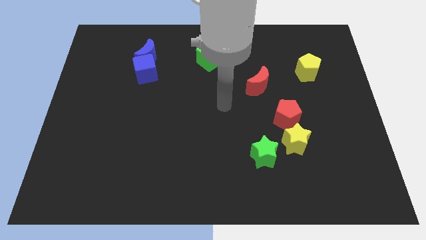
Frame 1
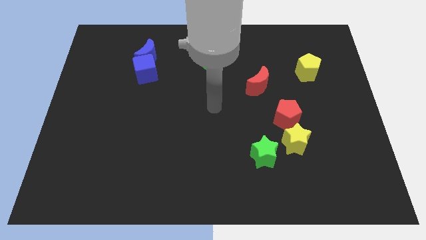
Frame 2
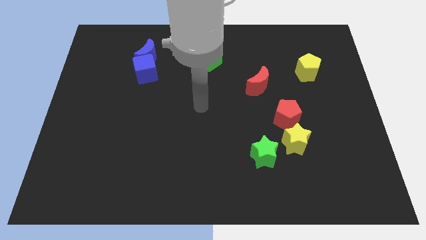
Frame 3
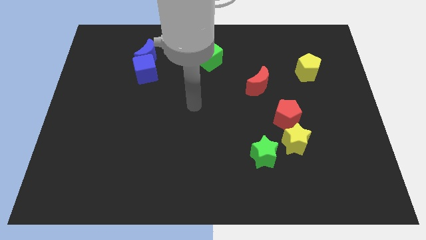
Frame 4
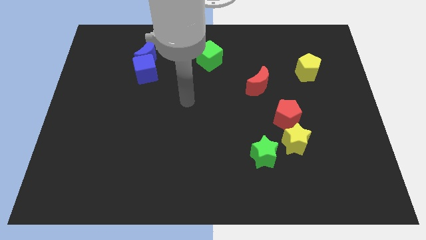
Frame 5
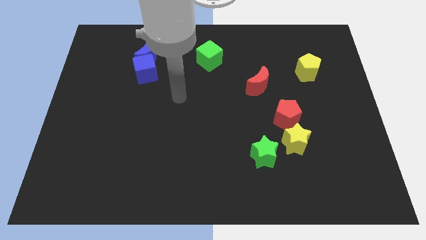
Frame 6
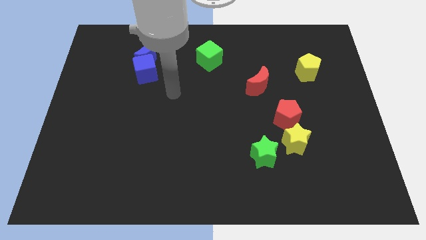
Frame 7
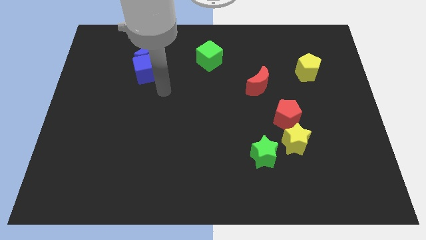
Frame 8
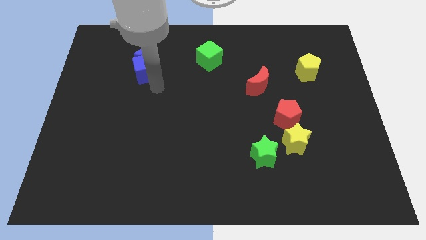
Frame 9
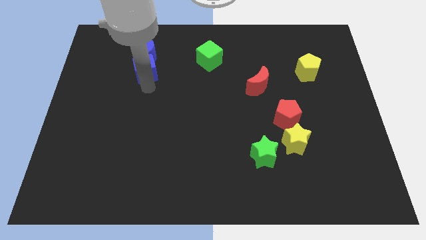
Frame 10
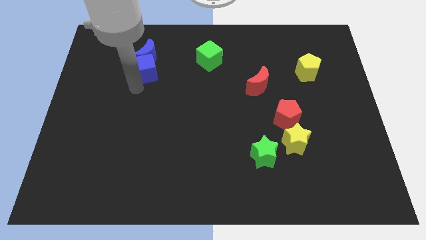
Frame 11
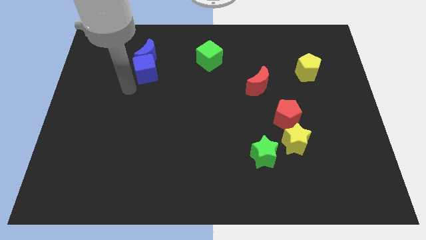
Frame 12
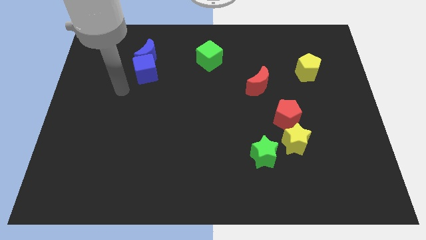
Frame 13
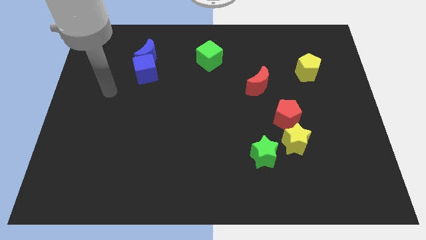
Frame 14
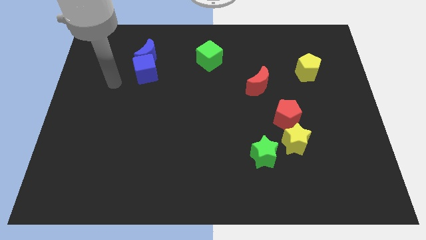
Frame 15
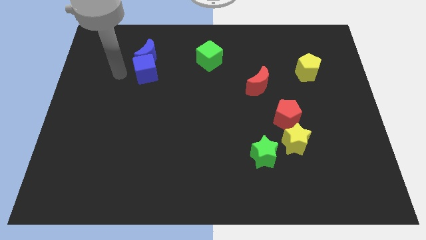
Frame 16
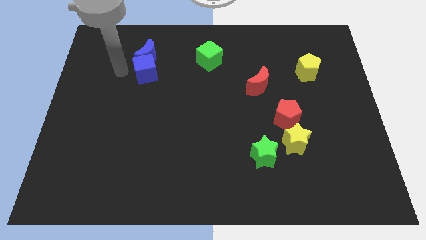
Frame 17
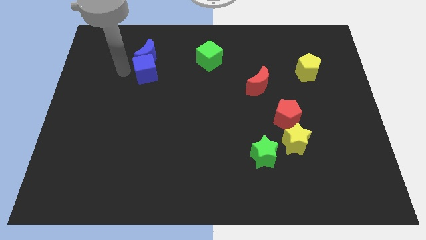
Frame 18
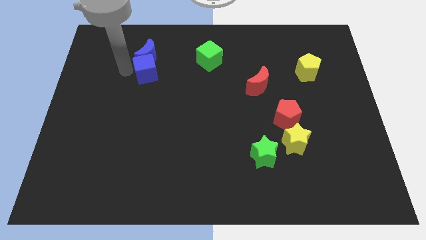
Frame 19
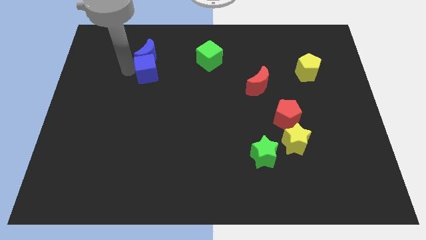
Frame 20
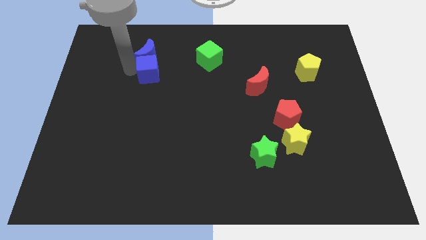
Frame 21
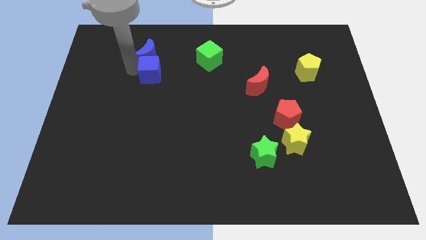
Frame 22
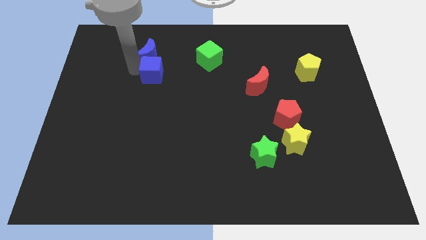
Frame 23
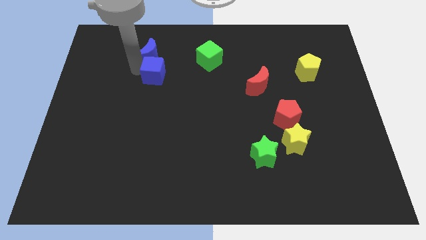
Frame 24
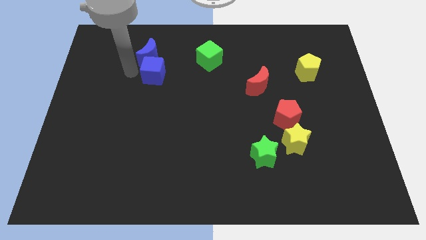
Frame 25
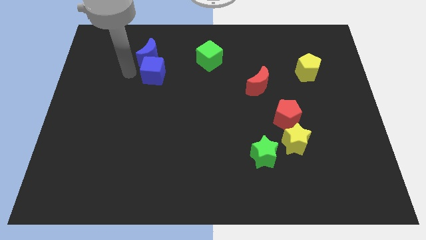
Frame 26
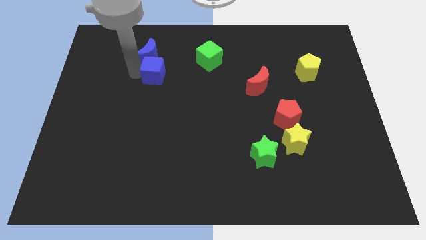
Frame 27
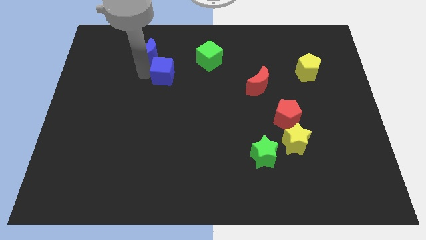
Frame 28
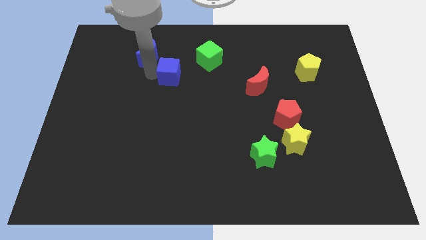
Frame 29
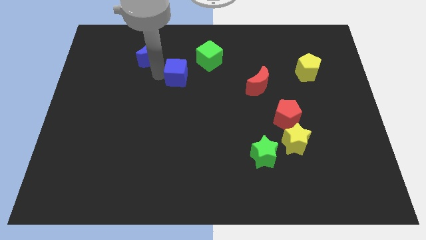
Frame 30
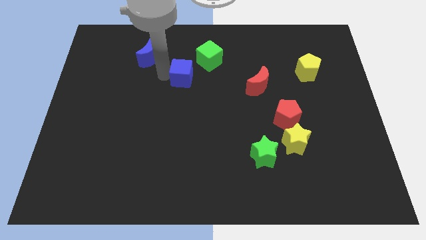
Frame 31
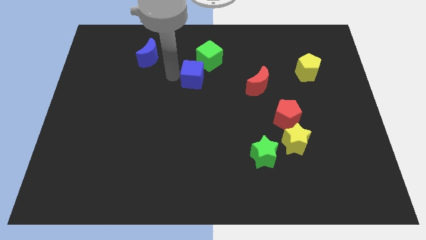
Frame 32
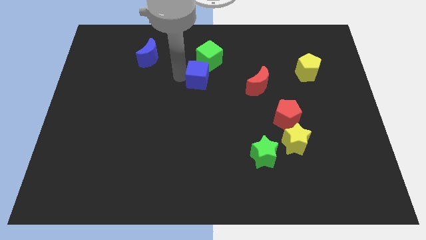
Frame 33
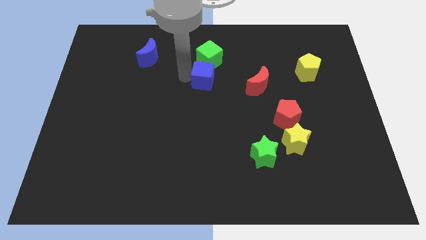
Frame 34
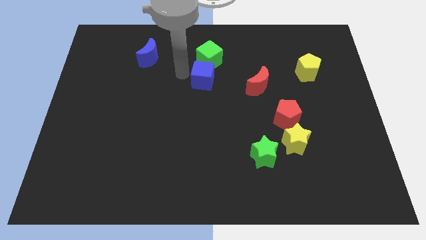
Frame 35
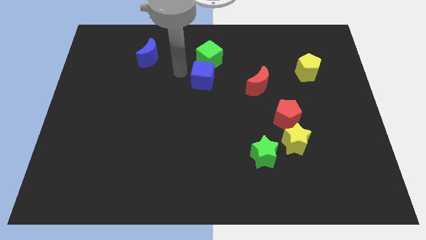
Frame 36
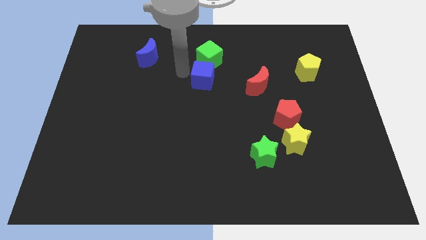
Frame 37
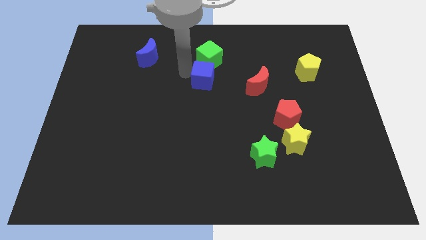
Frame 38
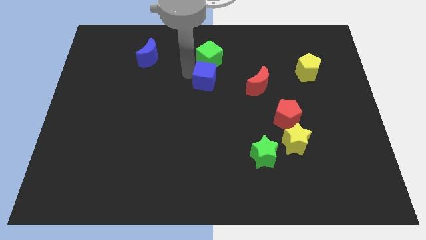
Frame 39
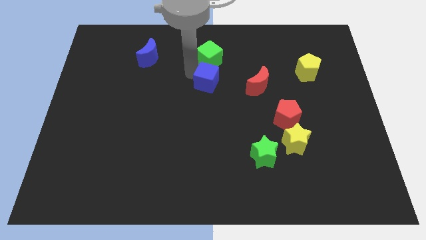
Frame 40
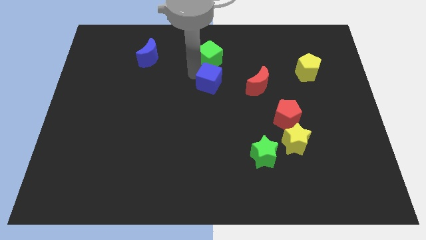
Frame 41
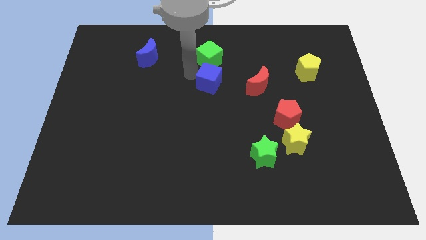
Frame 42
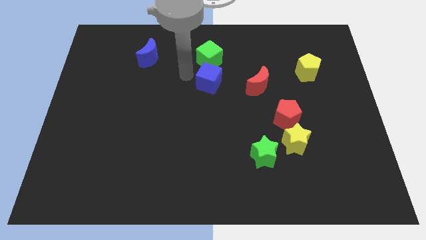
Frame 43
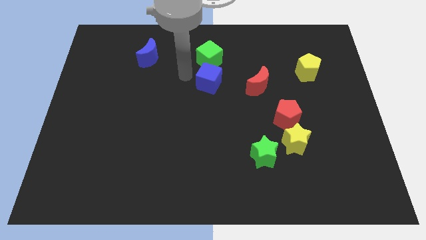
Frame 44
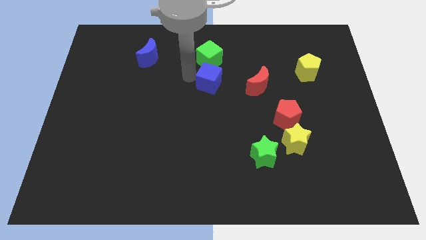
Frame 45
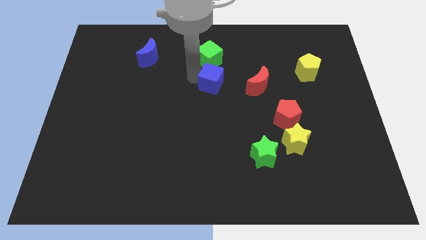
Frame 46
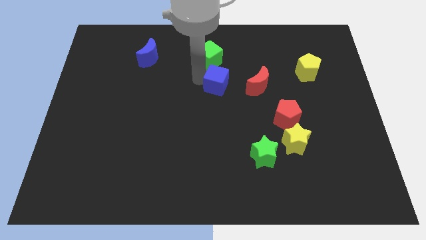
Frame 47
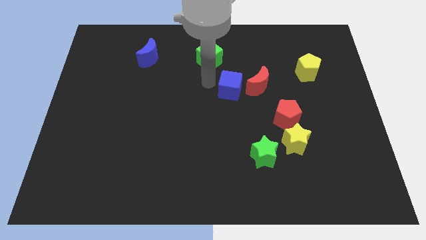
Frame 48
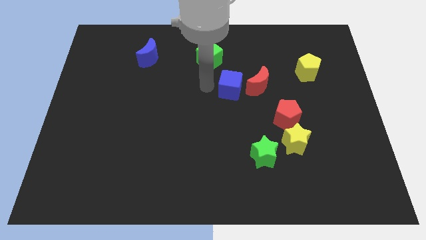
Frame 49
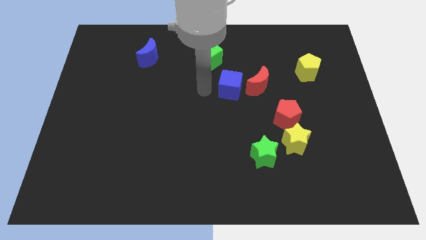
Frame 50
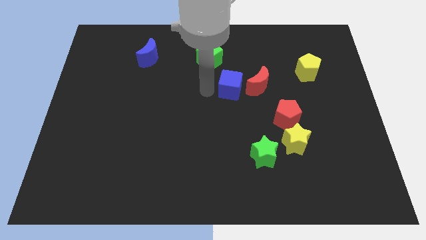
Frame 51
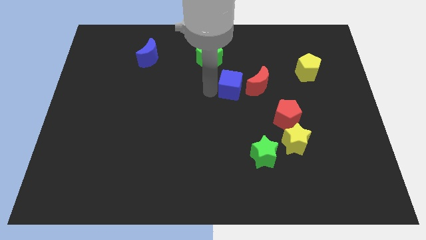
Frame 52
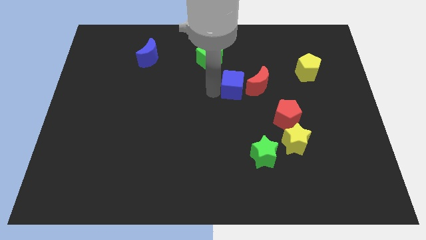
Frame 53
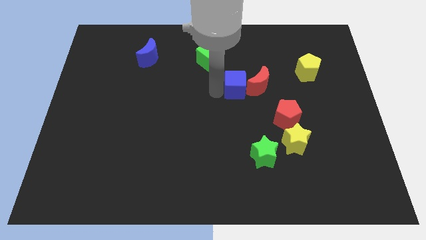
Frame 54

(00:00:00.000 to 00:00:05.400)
put the blue cube close to the red moon

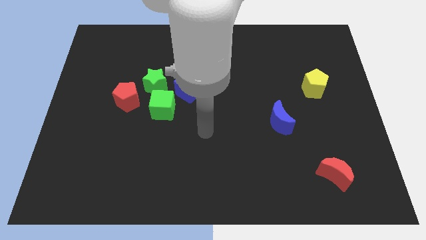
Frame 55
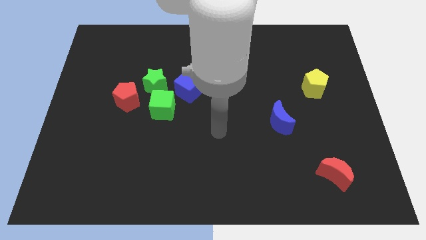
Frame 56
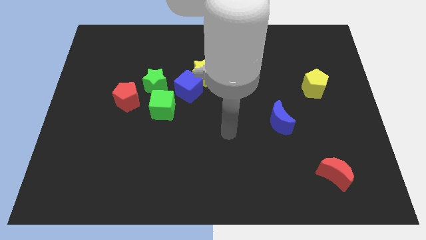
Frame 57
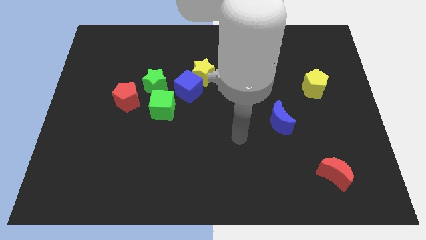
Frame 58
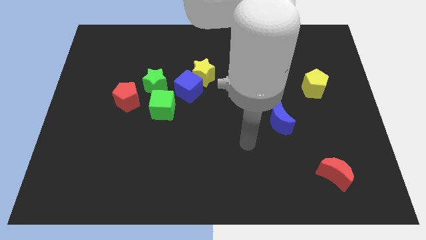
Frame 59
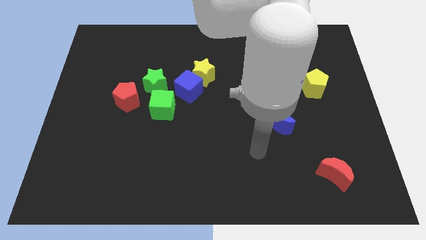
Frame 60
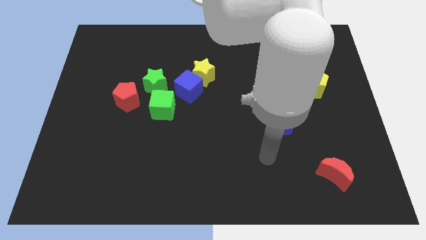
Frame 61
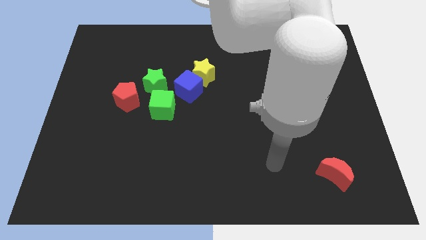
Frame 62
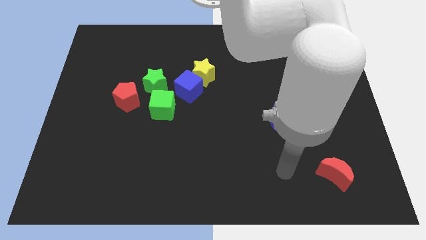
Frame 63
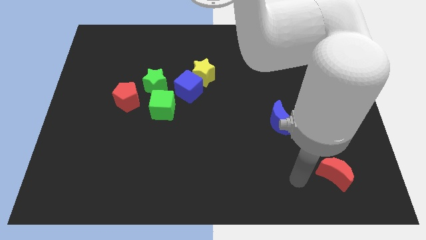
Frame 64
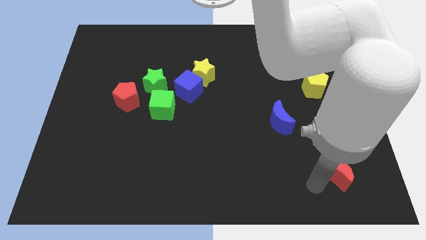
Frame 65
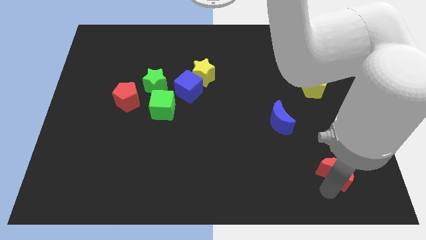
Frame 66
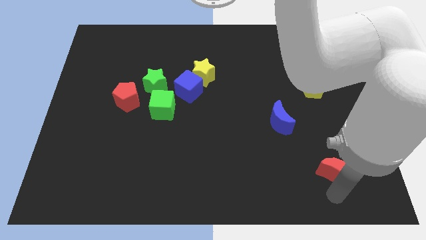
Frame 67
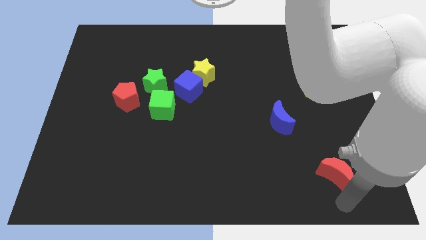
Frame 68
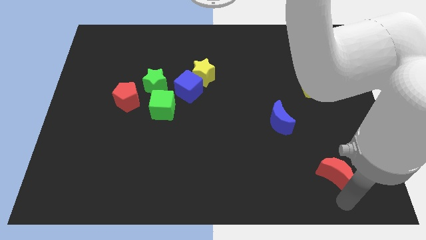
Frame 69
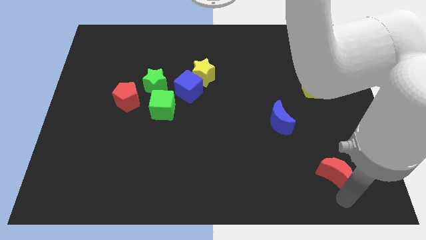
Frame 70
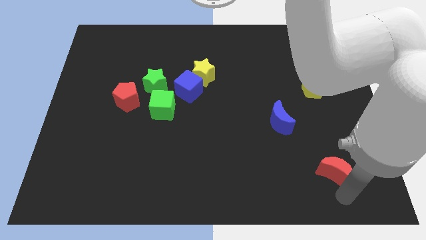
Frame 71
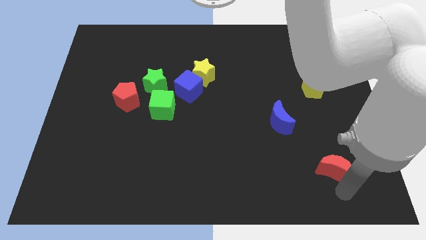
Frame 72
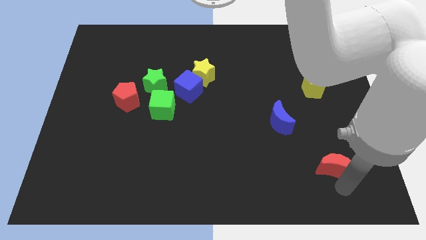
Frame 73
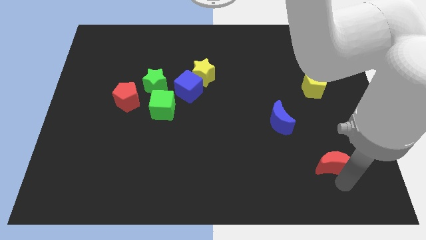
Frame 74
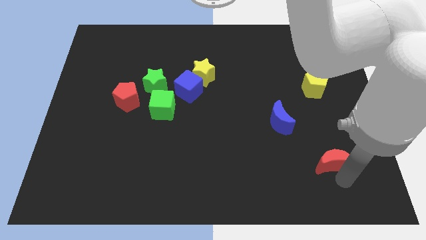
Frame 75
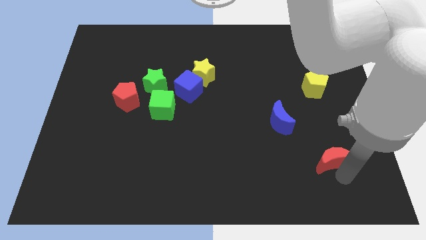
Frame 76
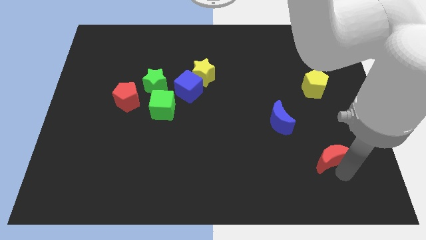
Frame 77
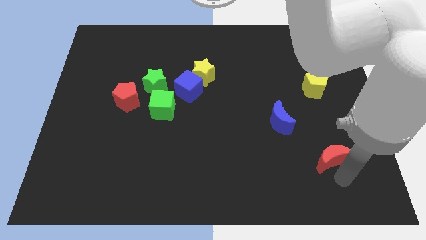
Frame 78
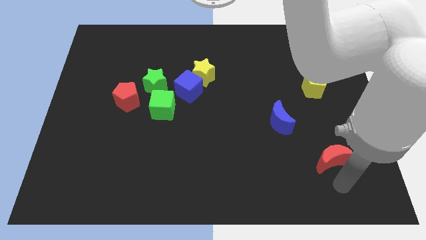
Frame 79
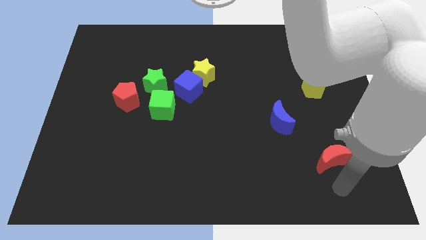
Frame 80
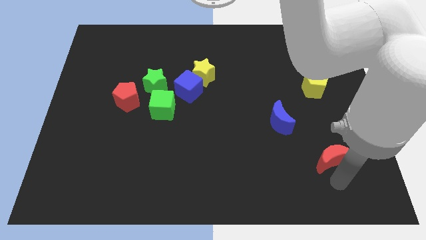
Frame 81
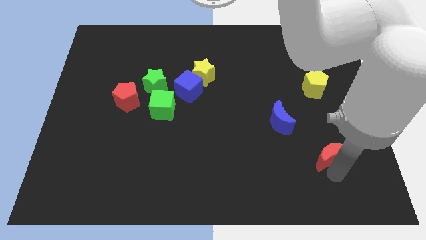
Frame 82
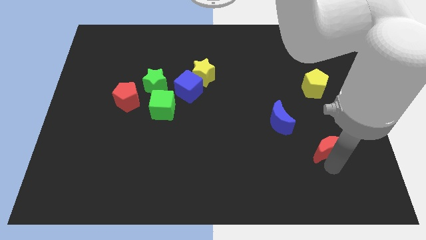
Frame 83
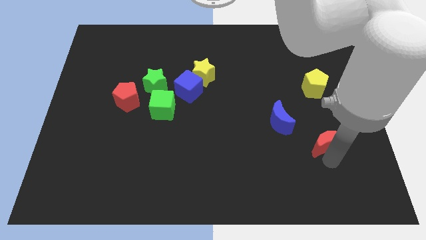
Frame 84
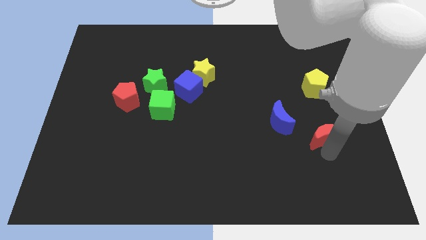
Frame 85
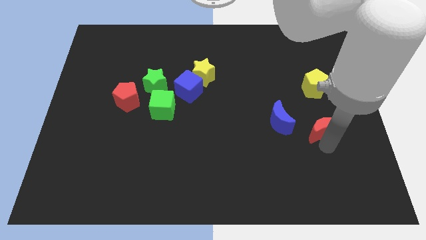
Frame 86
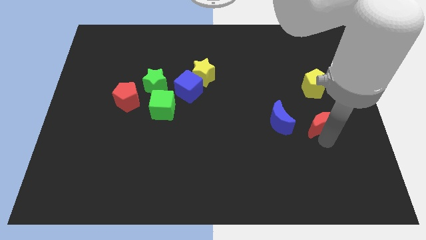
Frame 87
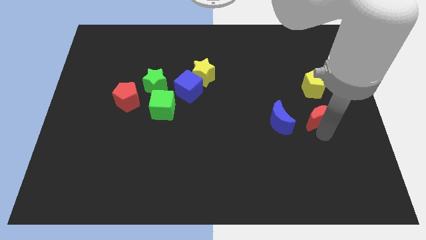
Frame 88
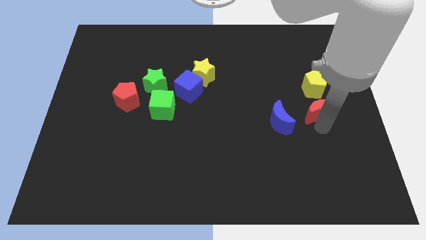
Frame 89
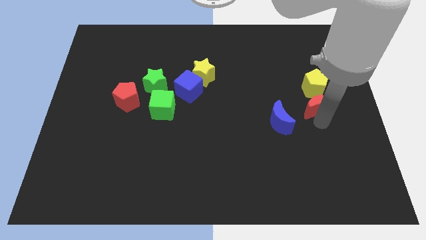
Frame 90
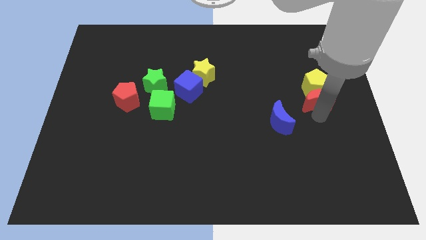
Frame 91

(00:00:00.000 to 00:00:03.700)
slide the red moon next to the yellow pentagon
